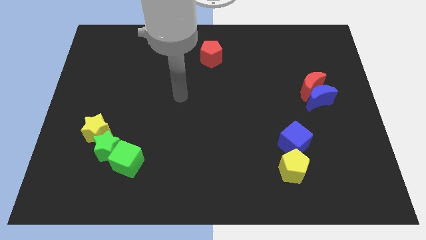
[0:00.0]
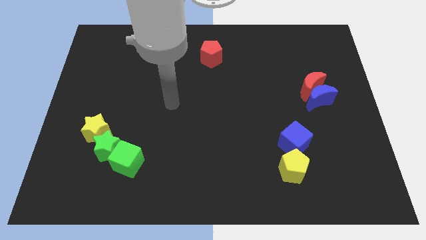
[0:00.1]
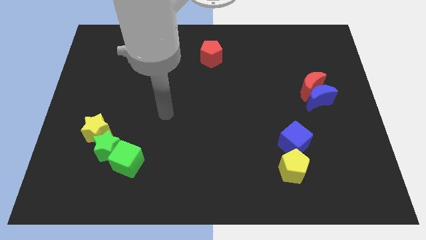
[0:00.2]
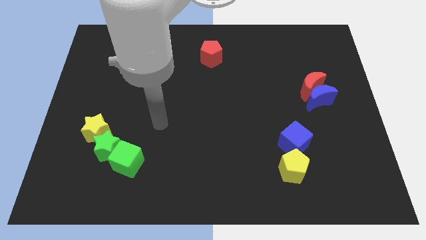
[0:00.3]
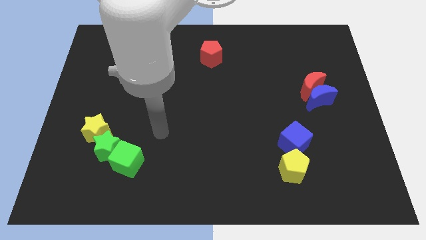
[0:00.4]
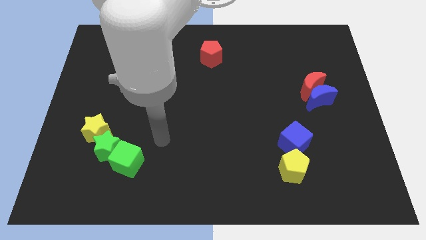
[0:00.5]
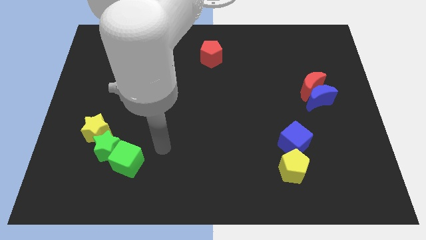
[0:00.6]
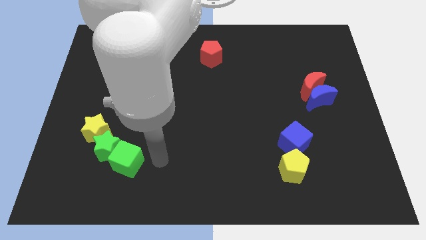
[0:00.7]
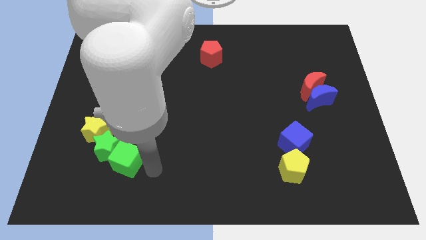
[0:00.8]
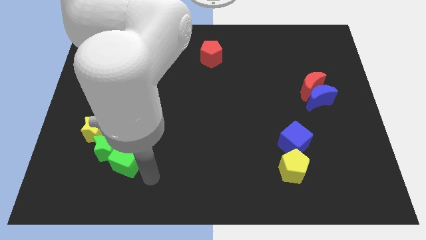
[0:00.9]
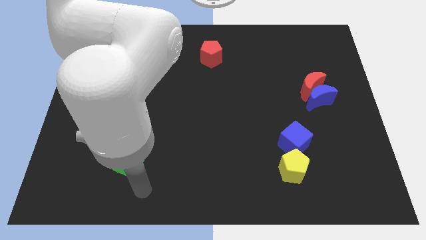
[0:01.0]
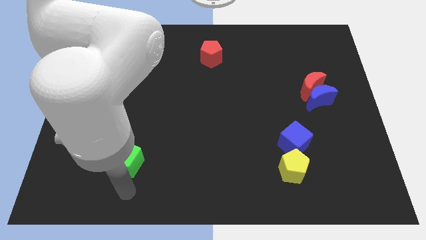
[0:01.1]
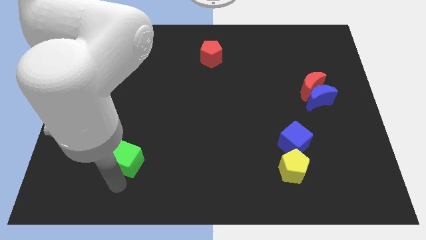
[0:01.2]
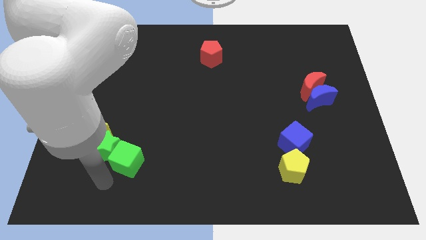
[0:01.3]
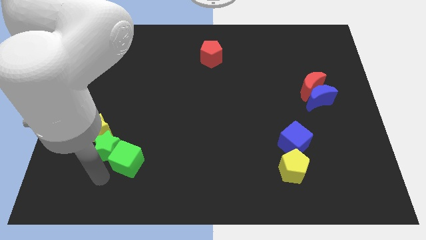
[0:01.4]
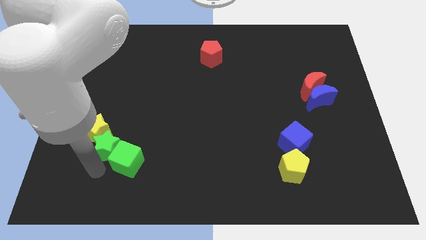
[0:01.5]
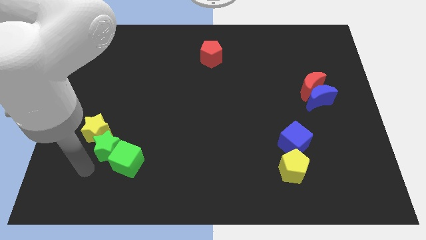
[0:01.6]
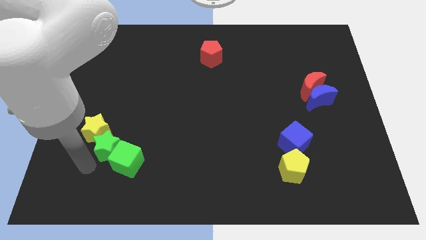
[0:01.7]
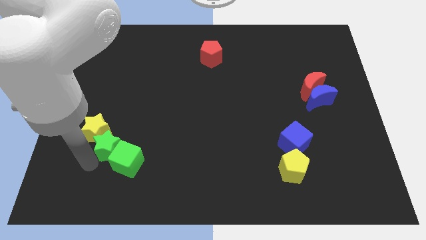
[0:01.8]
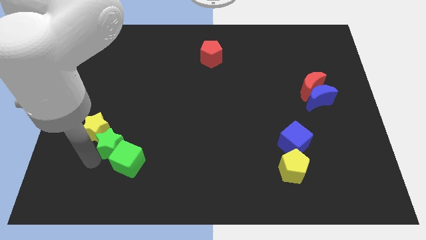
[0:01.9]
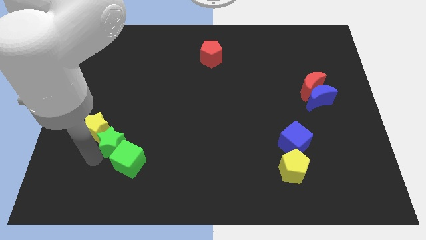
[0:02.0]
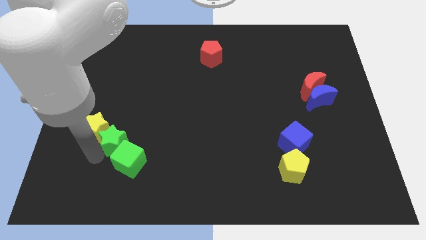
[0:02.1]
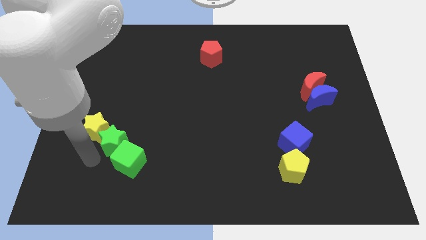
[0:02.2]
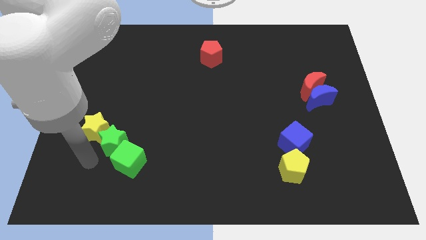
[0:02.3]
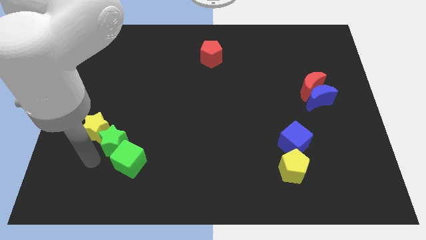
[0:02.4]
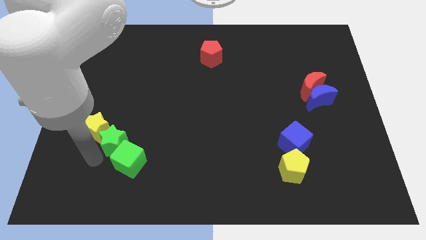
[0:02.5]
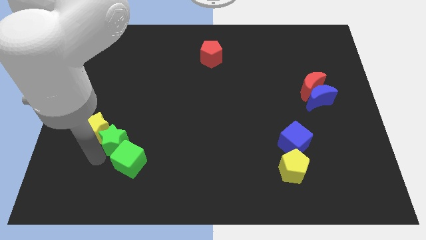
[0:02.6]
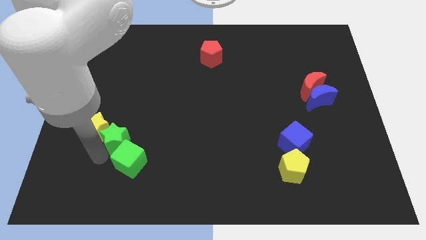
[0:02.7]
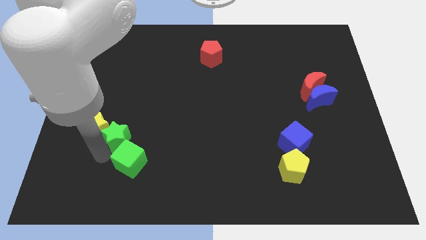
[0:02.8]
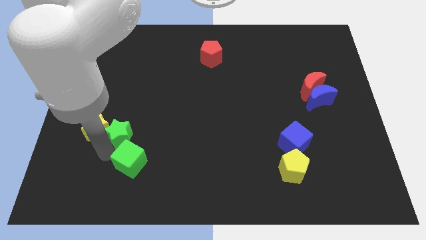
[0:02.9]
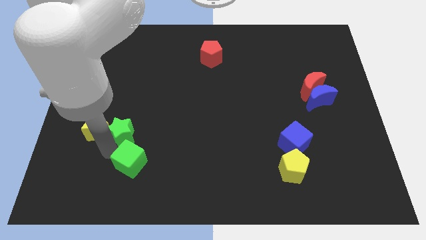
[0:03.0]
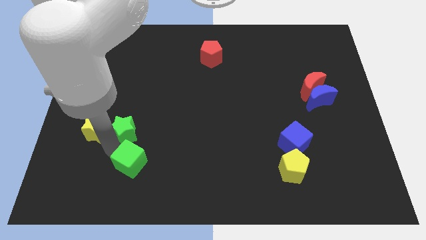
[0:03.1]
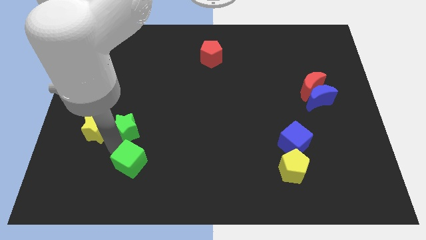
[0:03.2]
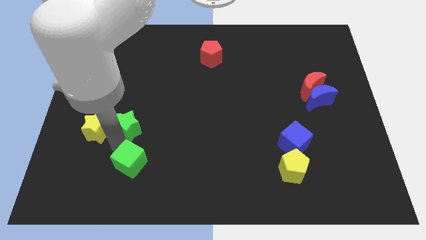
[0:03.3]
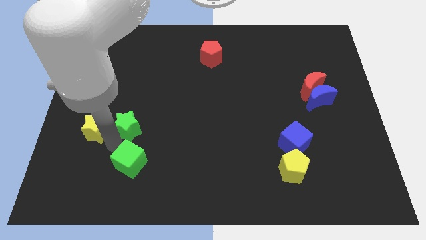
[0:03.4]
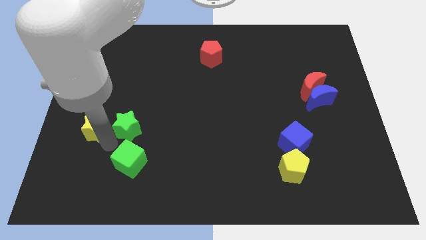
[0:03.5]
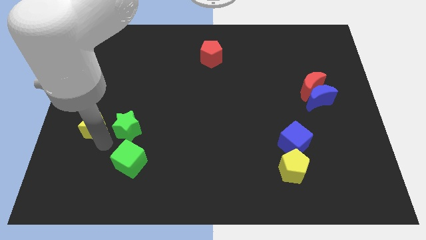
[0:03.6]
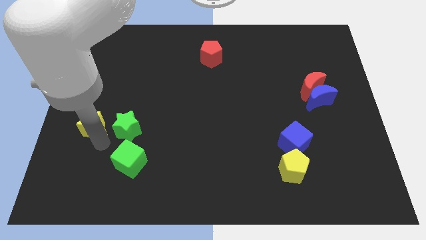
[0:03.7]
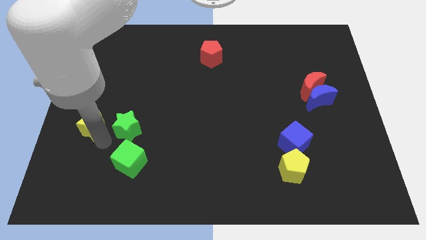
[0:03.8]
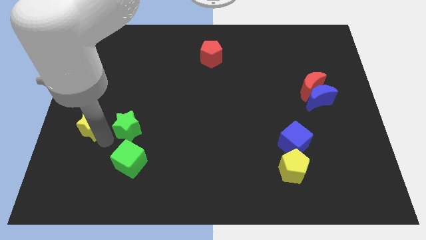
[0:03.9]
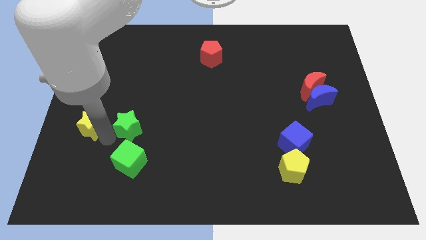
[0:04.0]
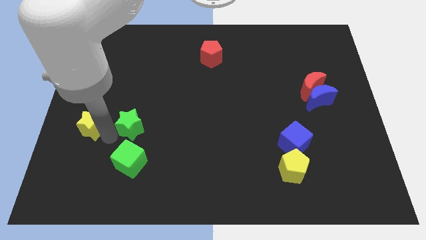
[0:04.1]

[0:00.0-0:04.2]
move the green star a little upwards and right diagonally

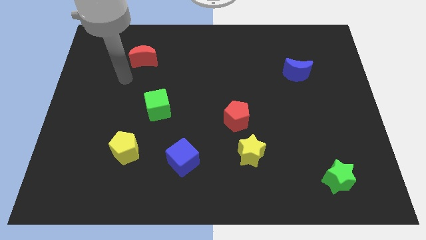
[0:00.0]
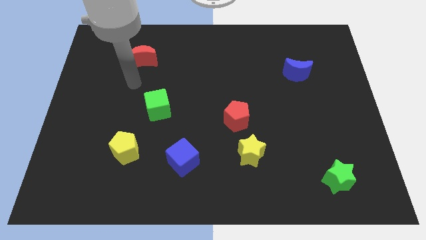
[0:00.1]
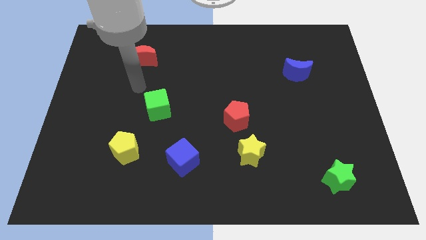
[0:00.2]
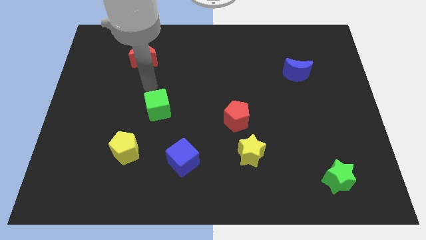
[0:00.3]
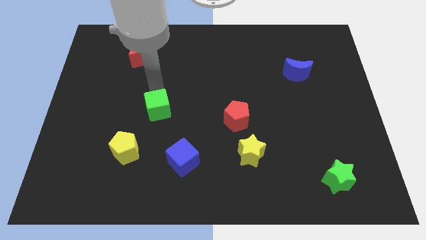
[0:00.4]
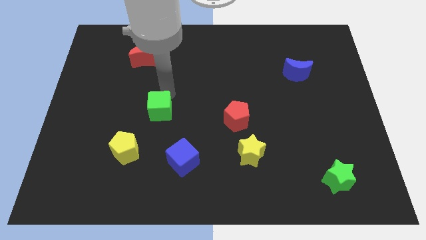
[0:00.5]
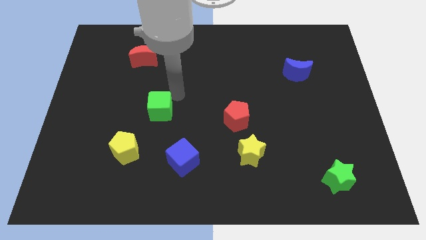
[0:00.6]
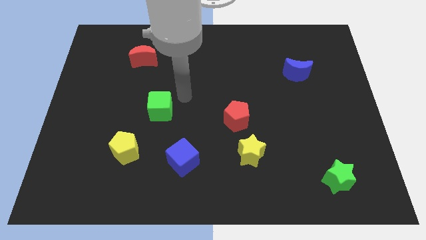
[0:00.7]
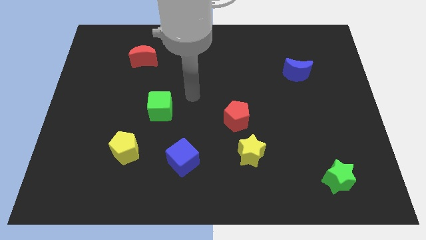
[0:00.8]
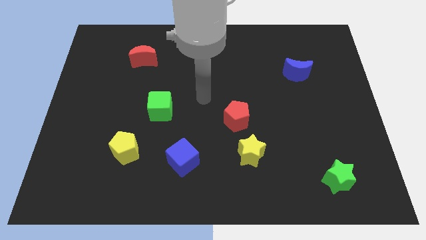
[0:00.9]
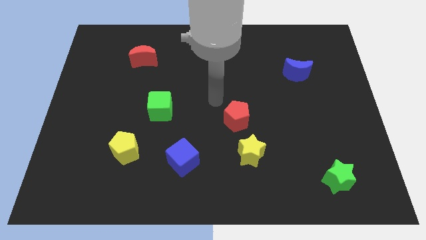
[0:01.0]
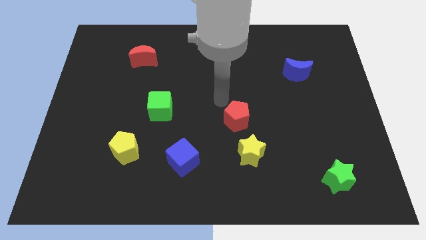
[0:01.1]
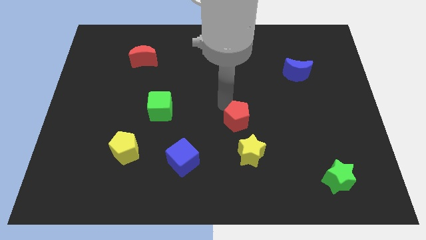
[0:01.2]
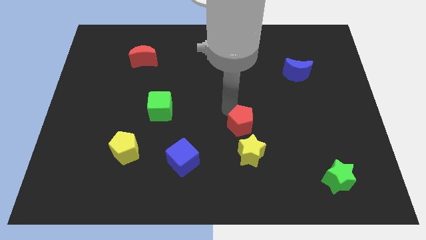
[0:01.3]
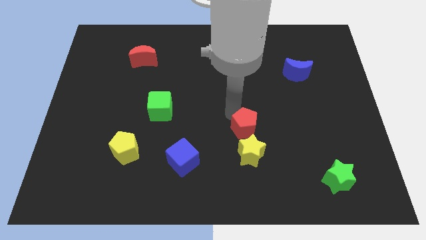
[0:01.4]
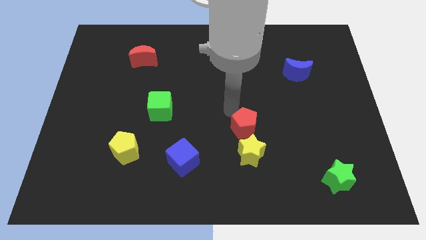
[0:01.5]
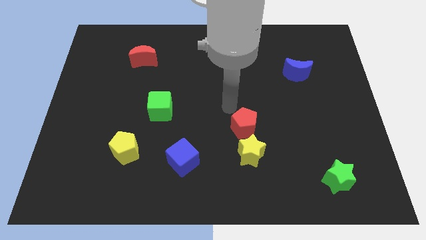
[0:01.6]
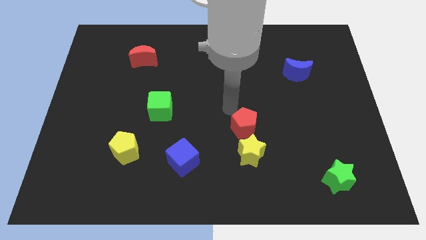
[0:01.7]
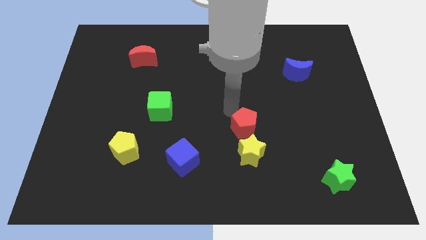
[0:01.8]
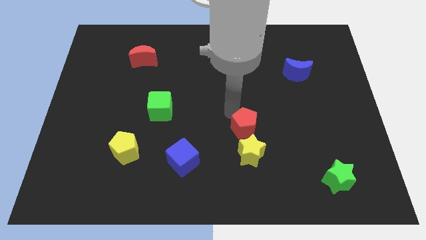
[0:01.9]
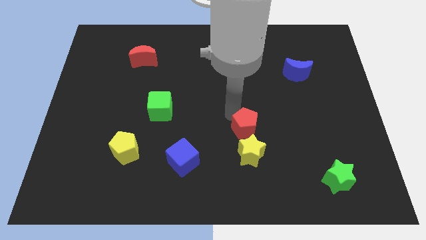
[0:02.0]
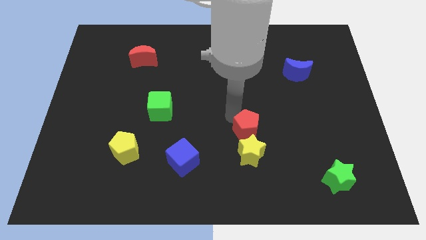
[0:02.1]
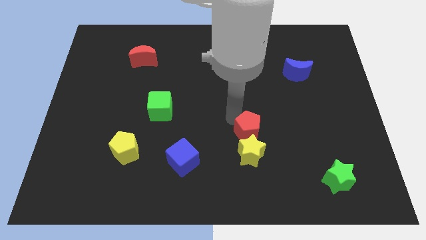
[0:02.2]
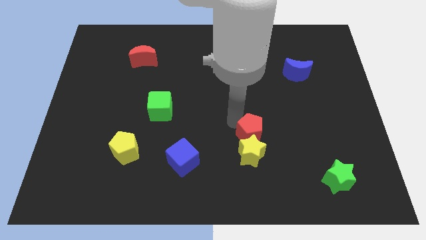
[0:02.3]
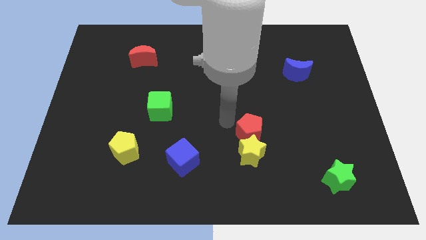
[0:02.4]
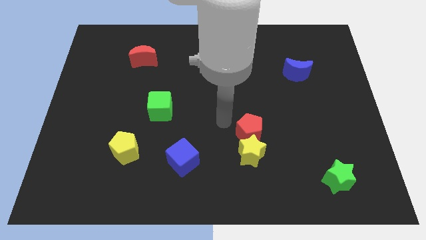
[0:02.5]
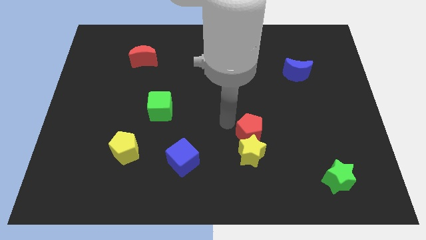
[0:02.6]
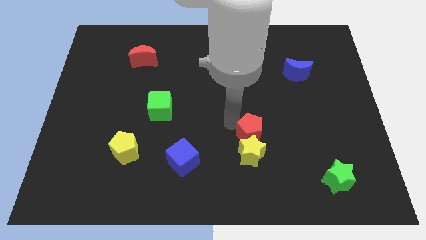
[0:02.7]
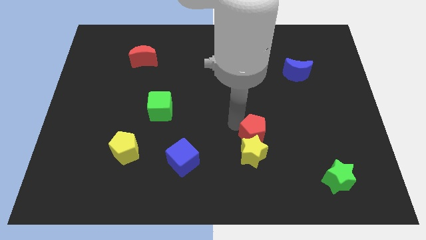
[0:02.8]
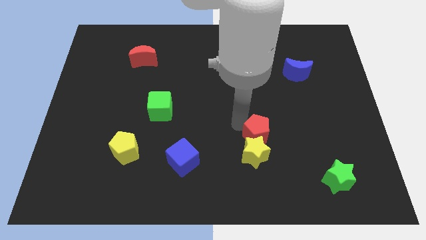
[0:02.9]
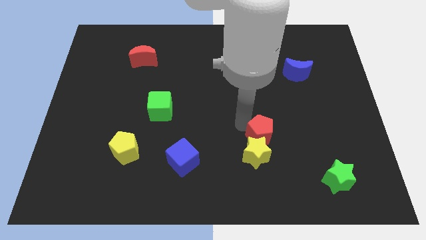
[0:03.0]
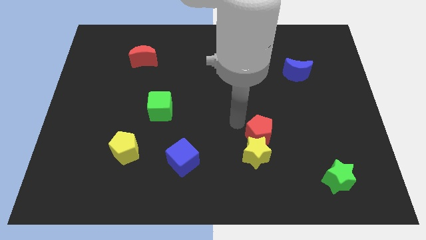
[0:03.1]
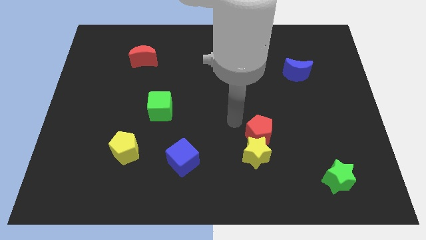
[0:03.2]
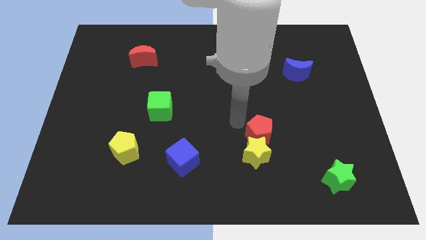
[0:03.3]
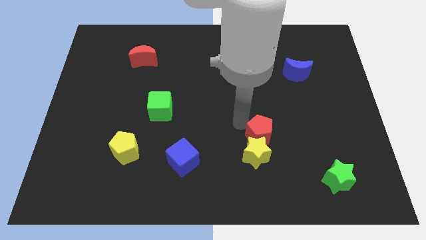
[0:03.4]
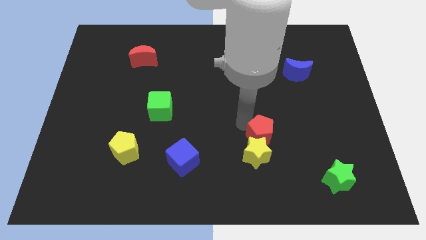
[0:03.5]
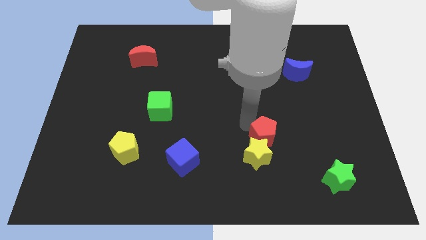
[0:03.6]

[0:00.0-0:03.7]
slide the red pentagon down and right diagonally a little

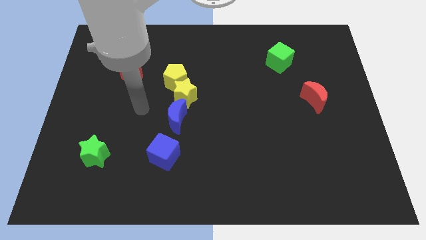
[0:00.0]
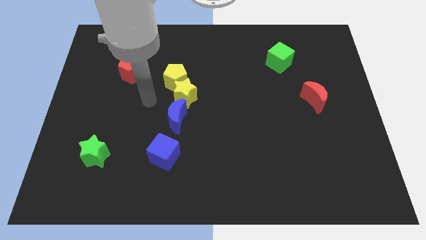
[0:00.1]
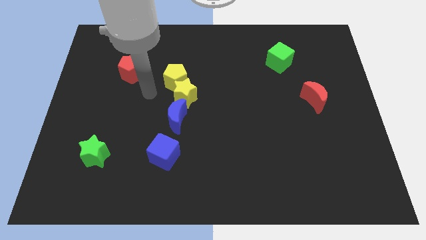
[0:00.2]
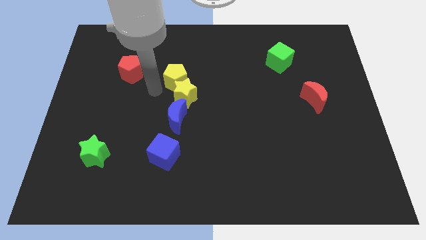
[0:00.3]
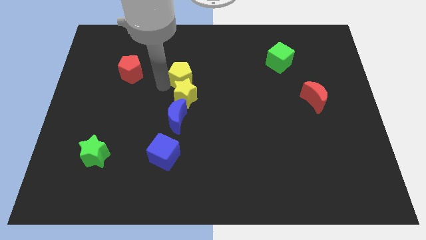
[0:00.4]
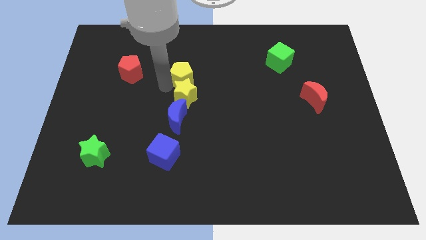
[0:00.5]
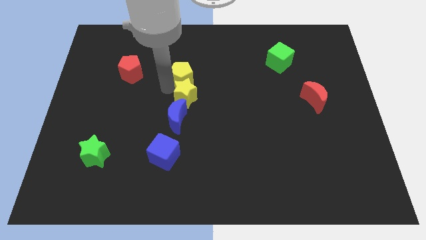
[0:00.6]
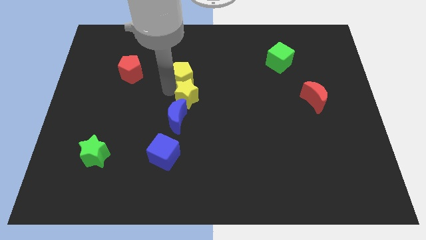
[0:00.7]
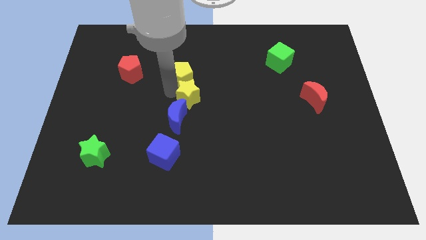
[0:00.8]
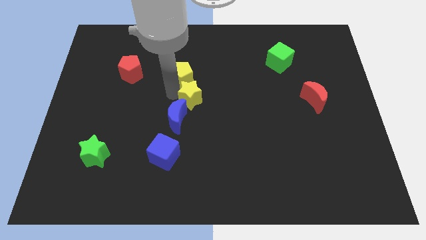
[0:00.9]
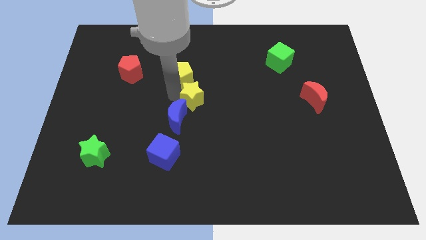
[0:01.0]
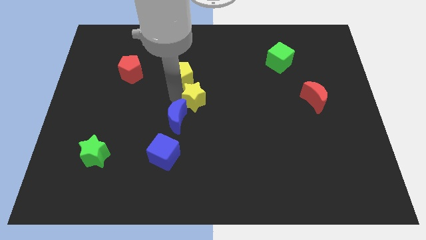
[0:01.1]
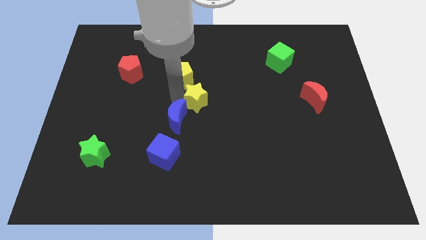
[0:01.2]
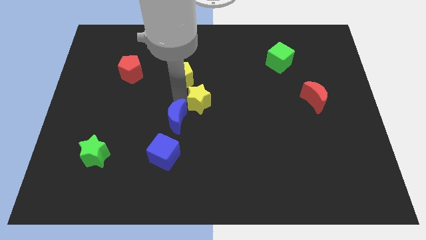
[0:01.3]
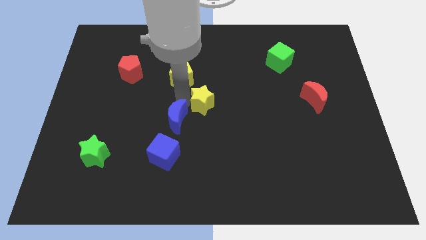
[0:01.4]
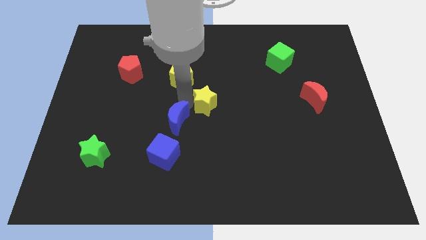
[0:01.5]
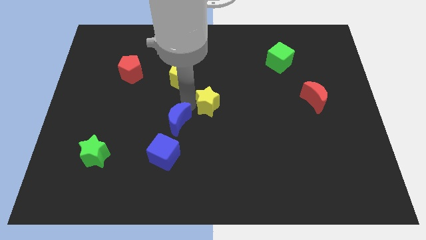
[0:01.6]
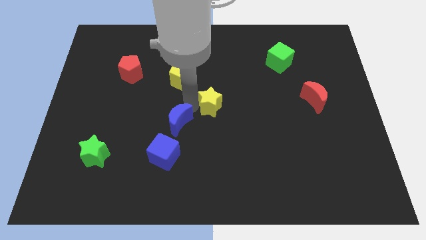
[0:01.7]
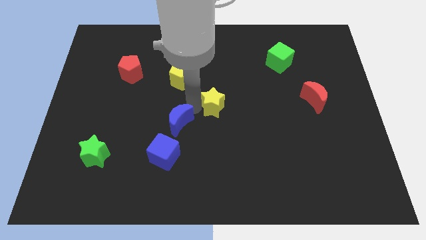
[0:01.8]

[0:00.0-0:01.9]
slightly move the yellow star down and right
